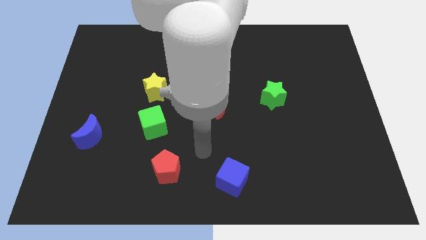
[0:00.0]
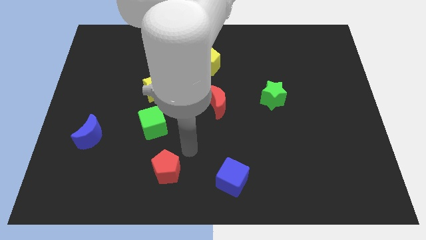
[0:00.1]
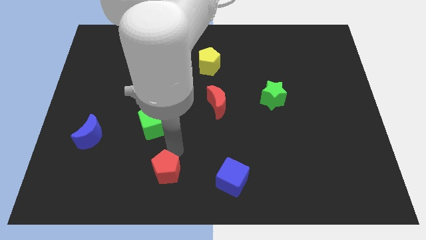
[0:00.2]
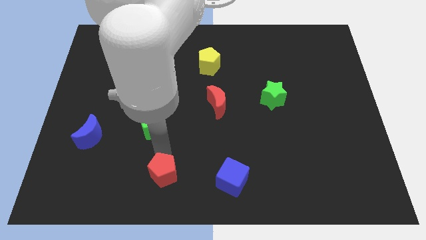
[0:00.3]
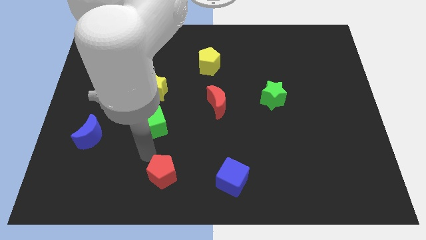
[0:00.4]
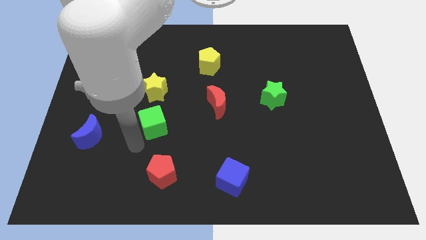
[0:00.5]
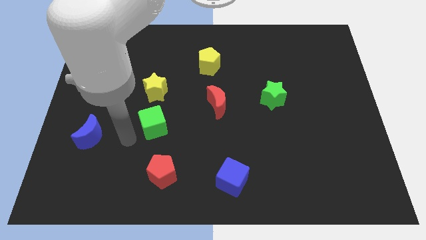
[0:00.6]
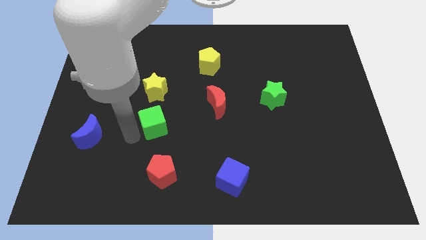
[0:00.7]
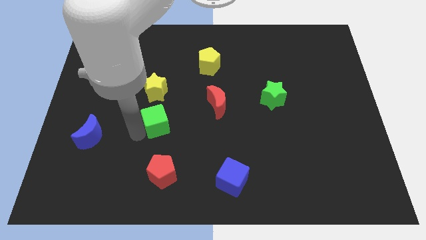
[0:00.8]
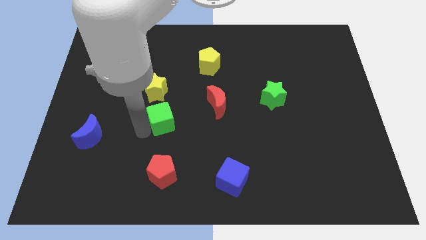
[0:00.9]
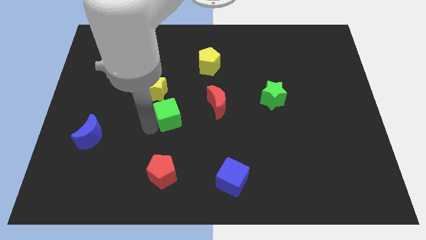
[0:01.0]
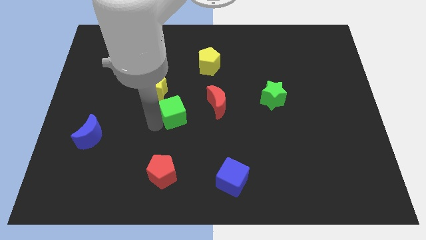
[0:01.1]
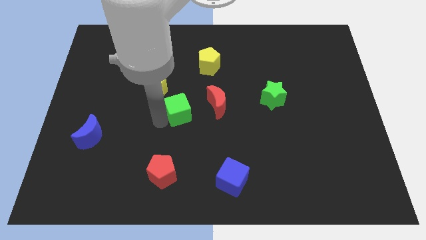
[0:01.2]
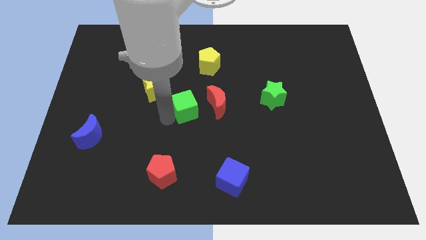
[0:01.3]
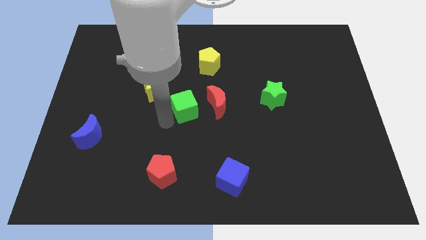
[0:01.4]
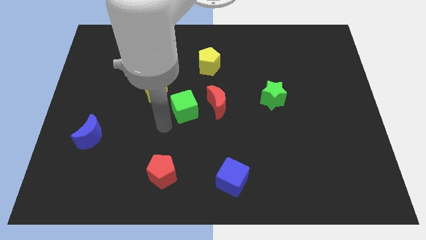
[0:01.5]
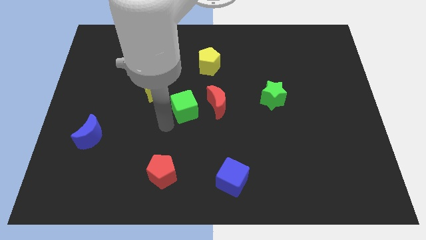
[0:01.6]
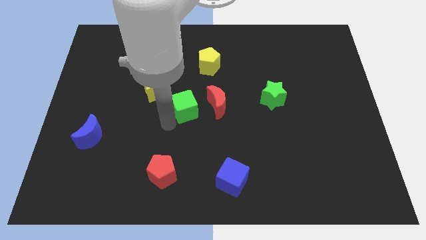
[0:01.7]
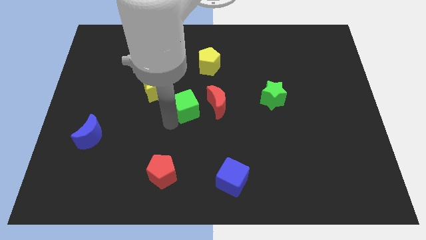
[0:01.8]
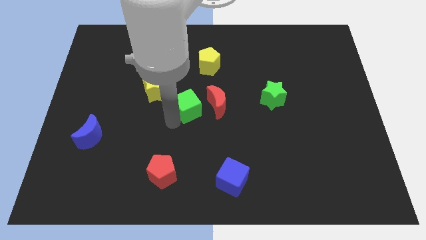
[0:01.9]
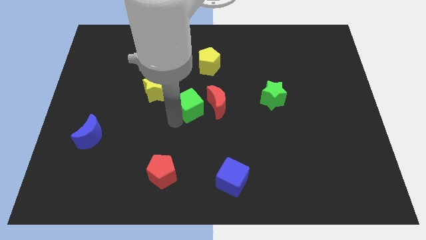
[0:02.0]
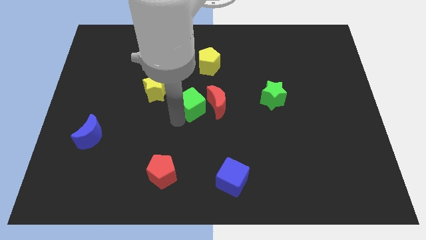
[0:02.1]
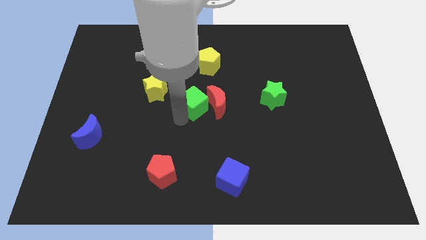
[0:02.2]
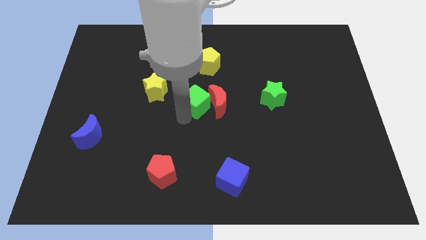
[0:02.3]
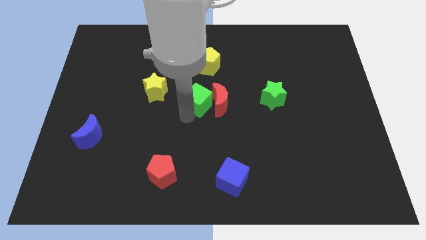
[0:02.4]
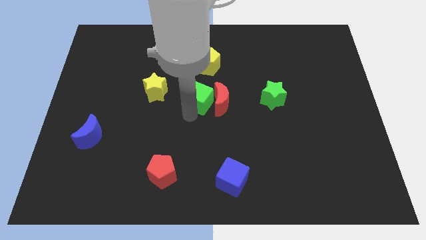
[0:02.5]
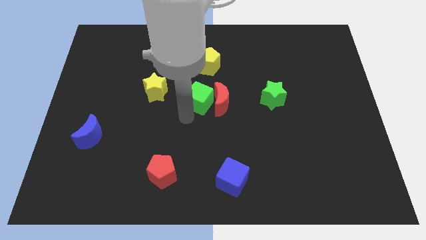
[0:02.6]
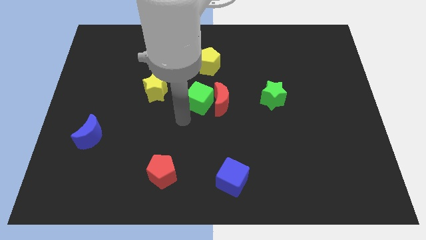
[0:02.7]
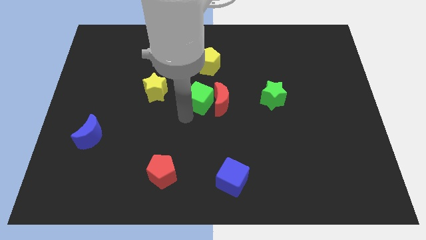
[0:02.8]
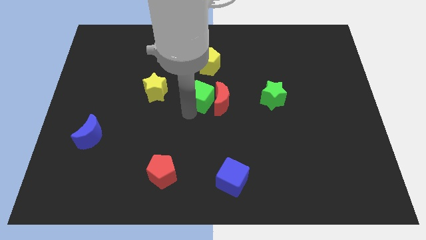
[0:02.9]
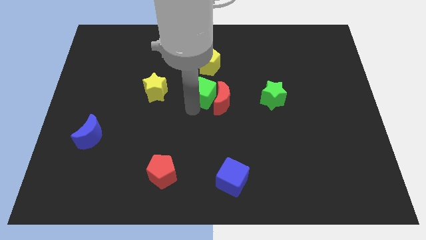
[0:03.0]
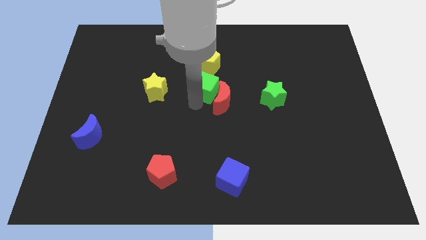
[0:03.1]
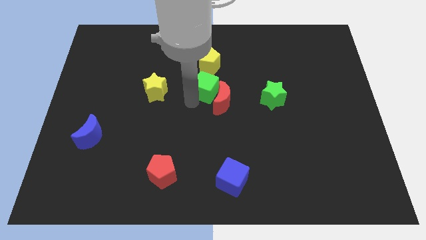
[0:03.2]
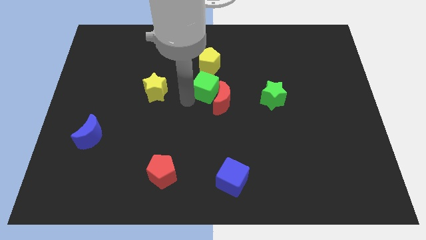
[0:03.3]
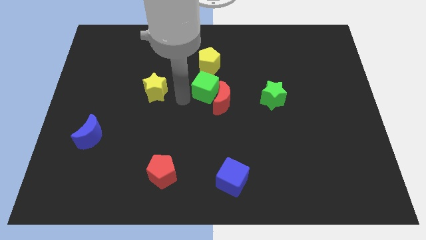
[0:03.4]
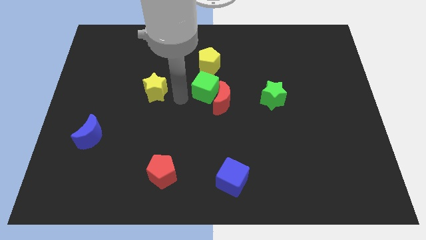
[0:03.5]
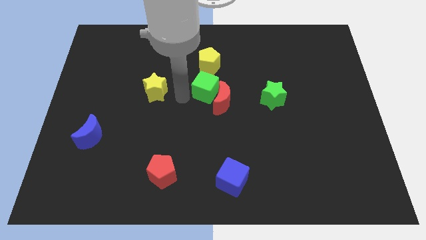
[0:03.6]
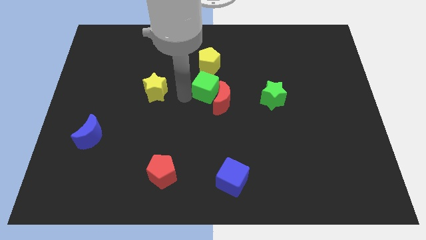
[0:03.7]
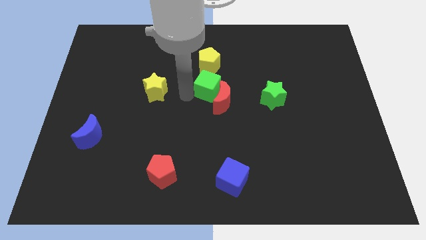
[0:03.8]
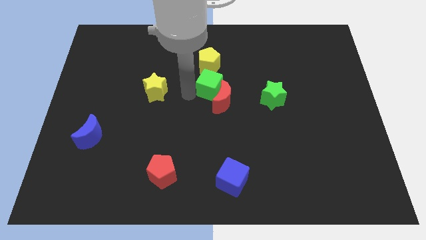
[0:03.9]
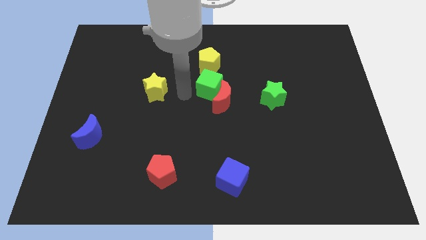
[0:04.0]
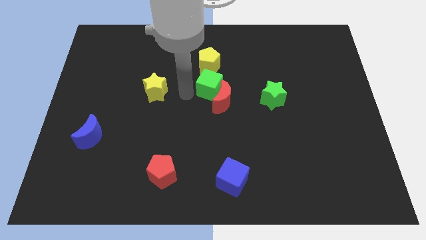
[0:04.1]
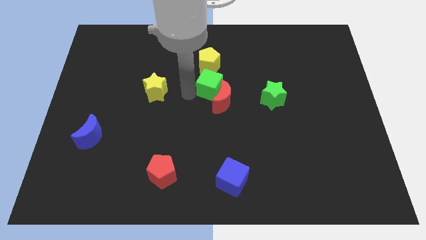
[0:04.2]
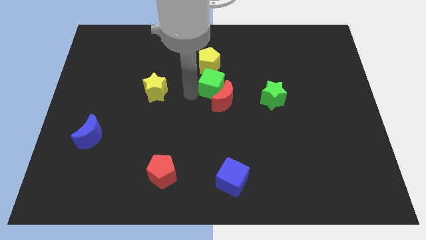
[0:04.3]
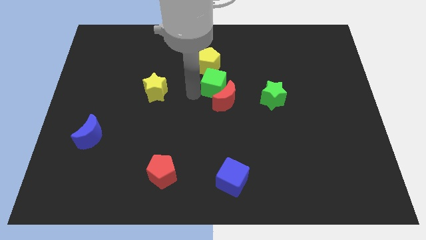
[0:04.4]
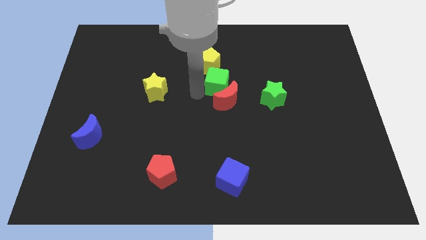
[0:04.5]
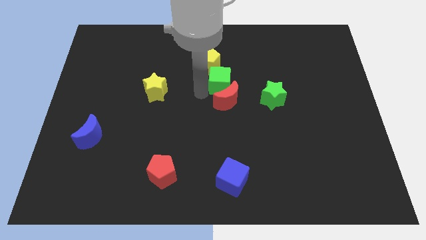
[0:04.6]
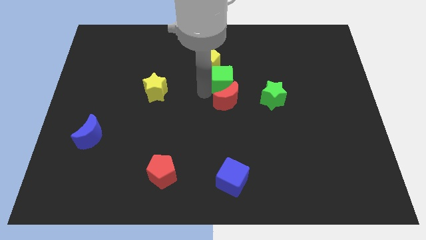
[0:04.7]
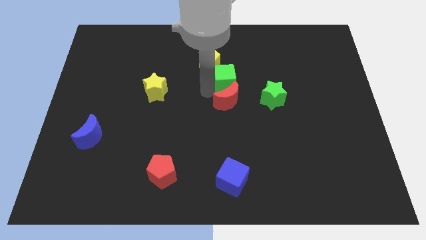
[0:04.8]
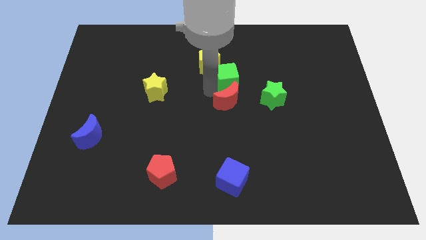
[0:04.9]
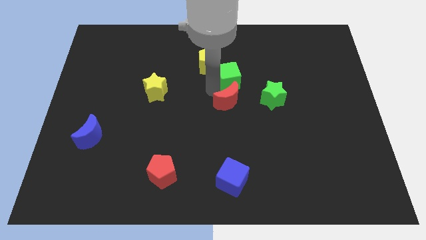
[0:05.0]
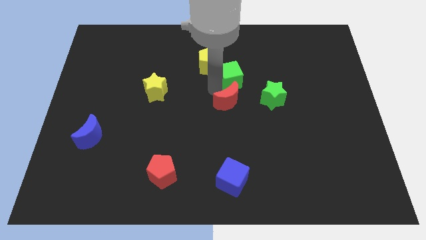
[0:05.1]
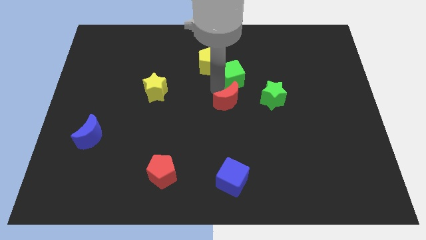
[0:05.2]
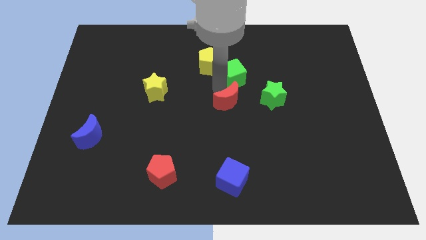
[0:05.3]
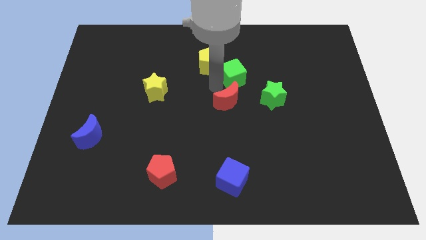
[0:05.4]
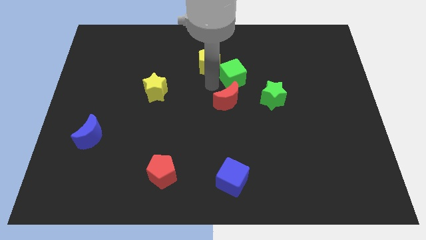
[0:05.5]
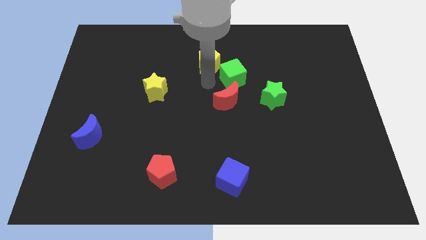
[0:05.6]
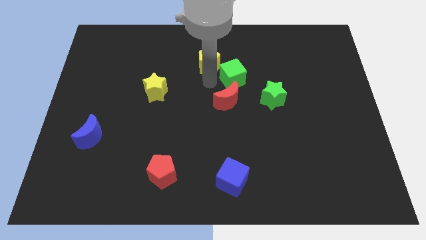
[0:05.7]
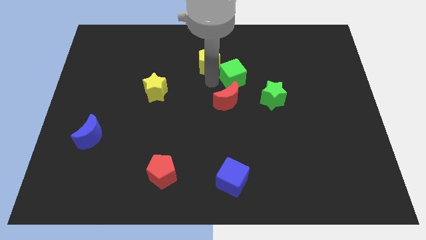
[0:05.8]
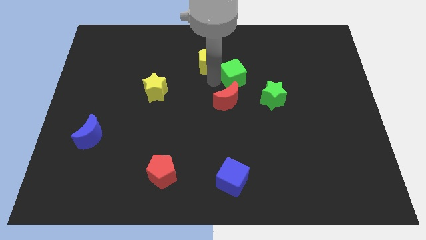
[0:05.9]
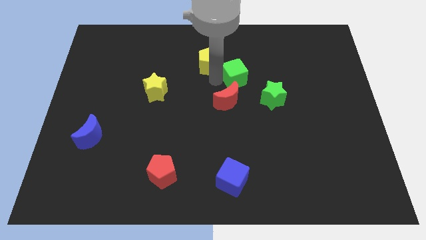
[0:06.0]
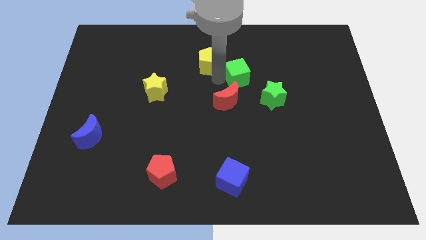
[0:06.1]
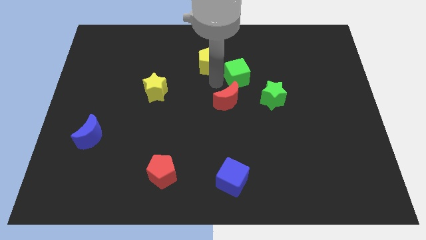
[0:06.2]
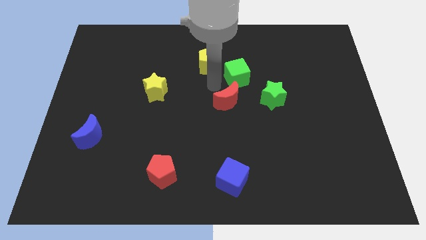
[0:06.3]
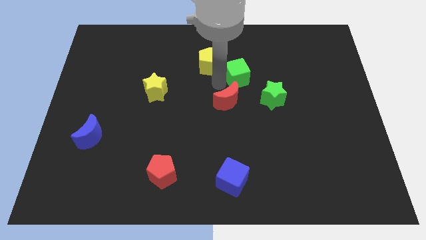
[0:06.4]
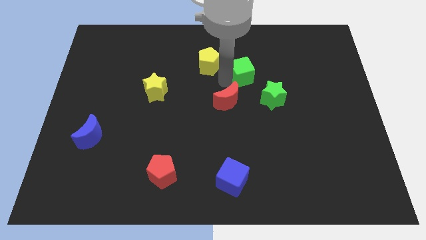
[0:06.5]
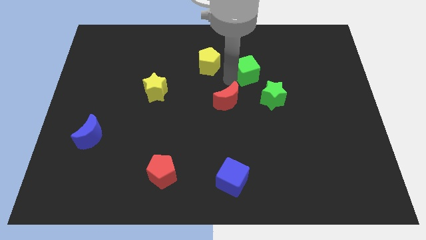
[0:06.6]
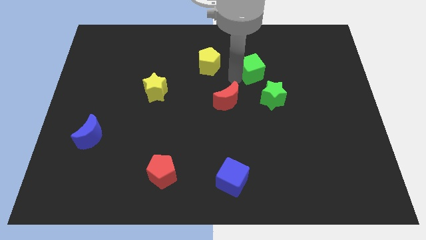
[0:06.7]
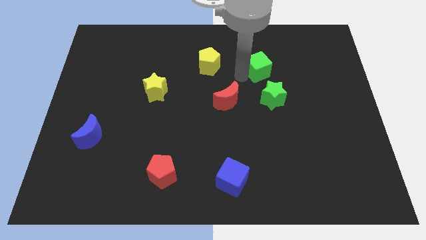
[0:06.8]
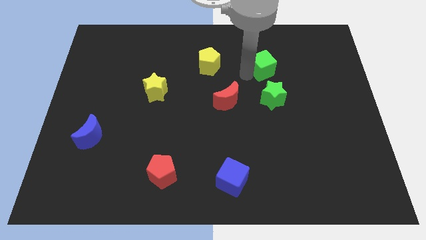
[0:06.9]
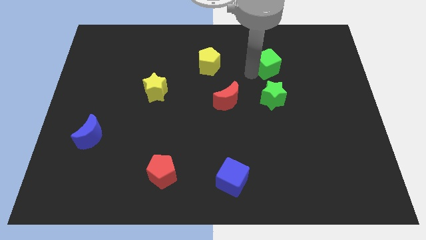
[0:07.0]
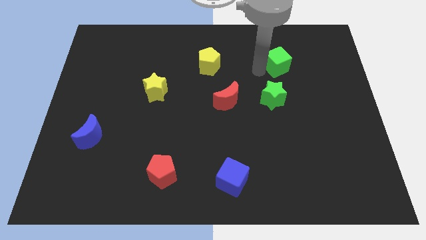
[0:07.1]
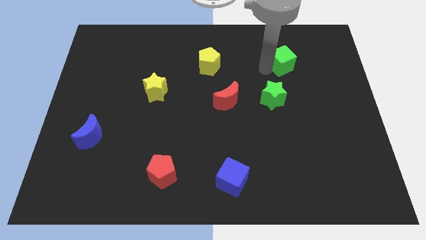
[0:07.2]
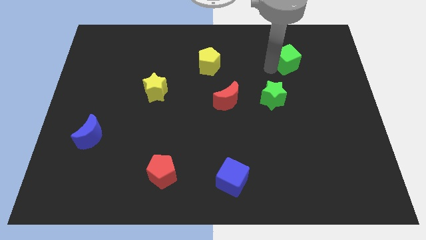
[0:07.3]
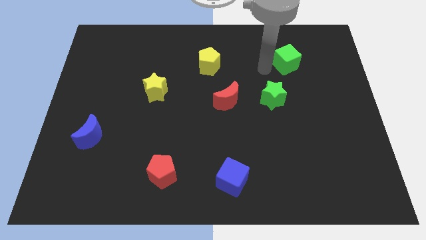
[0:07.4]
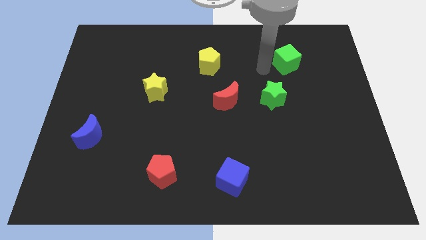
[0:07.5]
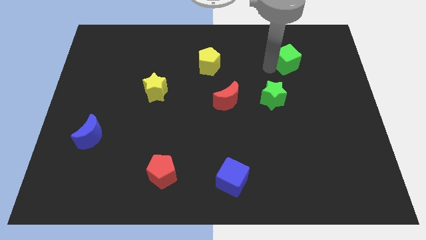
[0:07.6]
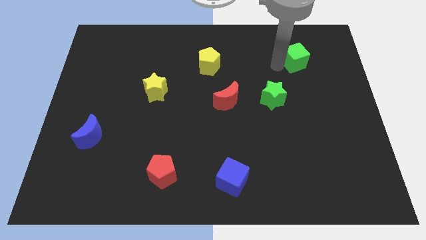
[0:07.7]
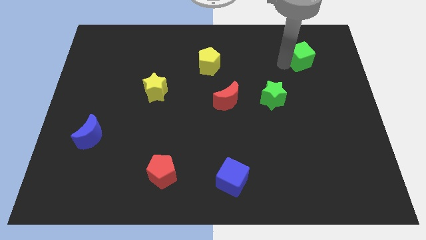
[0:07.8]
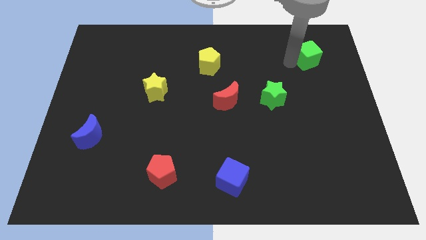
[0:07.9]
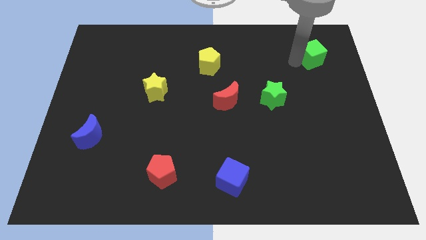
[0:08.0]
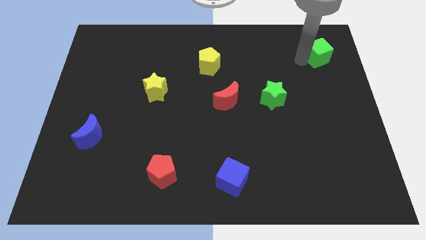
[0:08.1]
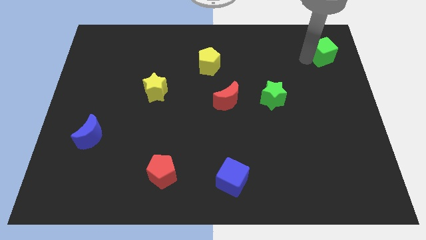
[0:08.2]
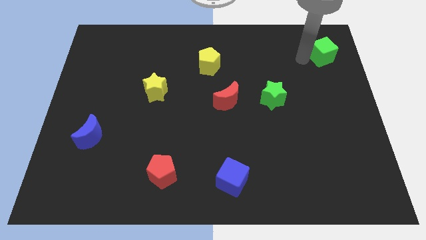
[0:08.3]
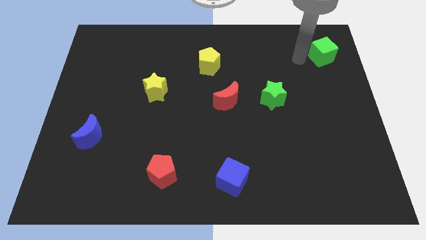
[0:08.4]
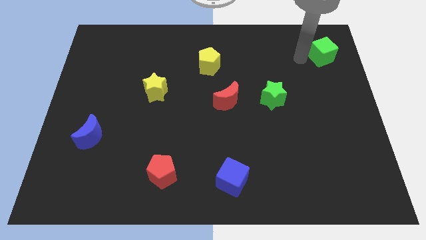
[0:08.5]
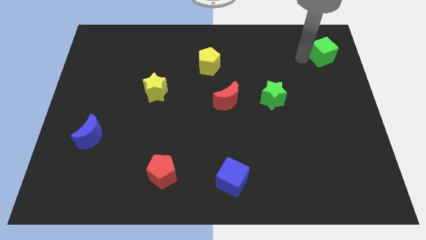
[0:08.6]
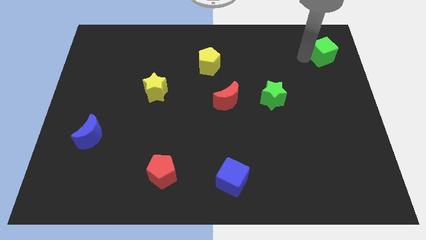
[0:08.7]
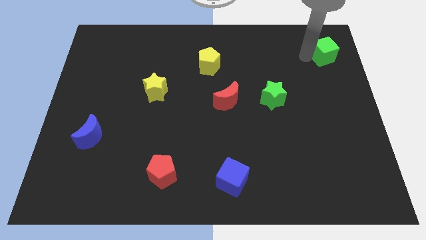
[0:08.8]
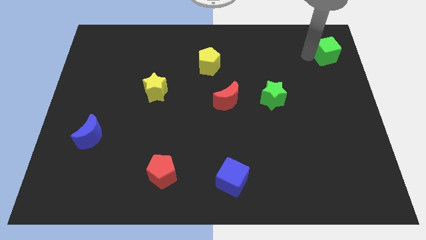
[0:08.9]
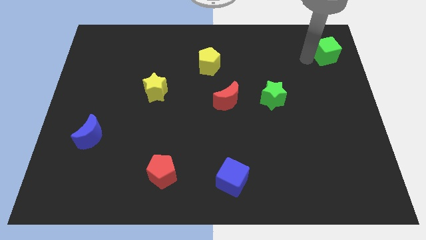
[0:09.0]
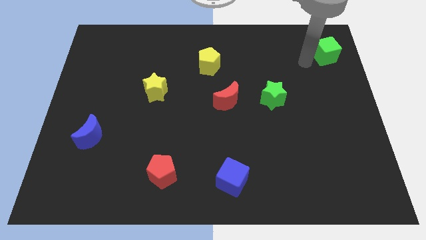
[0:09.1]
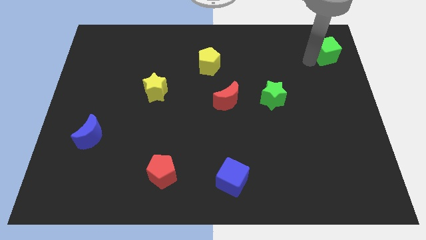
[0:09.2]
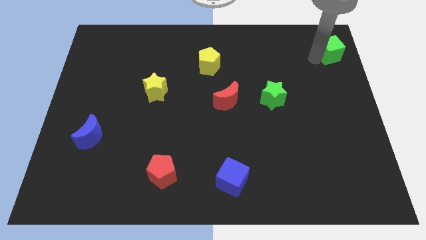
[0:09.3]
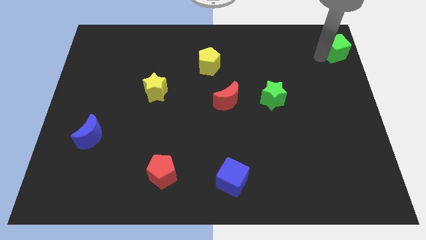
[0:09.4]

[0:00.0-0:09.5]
slide the green cube to the top right
